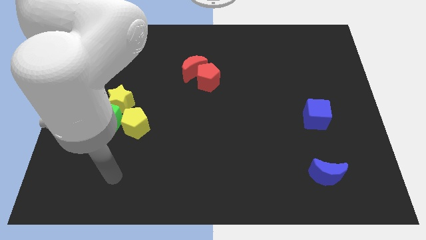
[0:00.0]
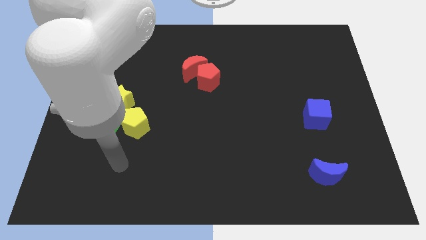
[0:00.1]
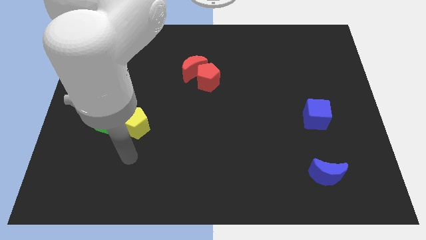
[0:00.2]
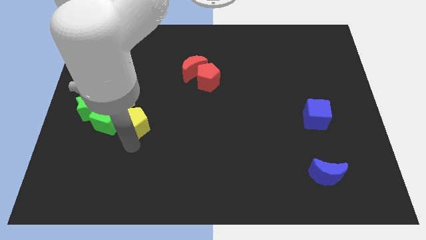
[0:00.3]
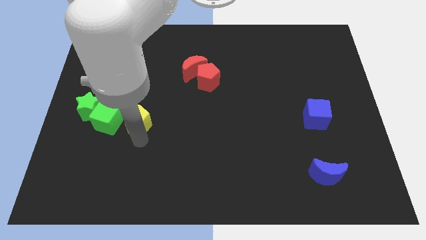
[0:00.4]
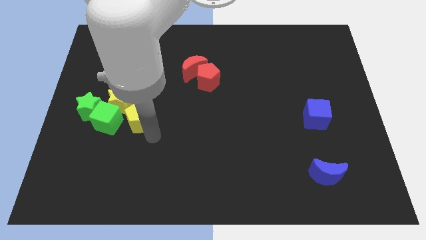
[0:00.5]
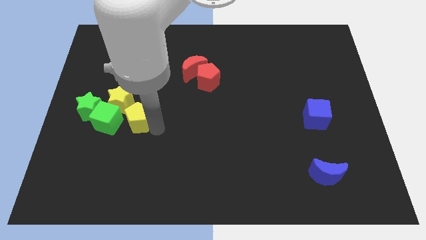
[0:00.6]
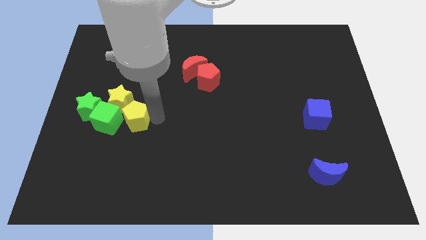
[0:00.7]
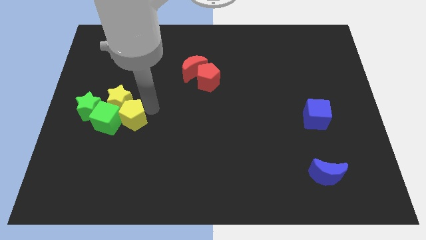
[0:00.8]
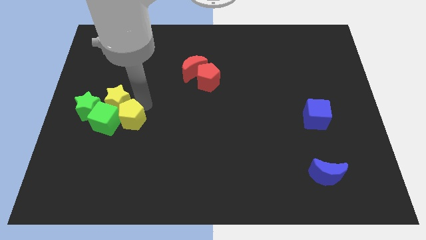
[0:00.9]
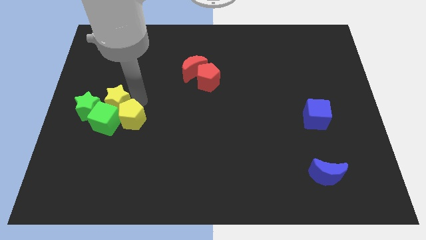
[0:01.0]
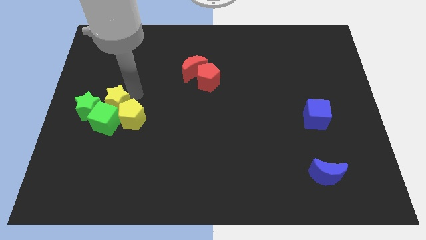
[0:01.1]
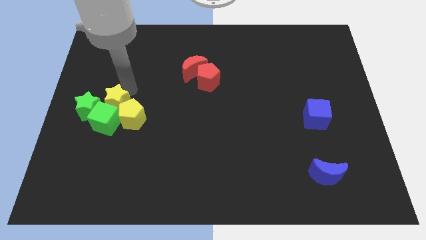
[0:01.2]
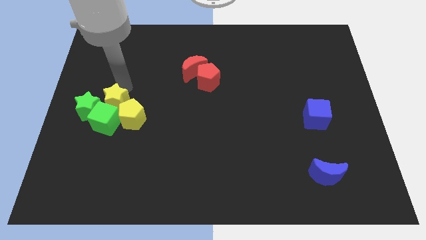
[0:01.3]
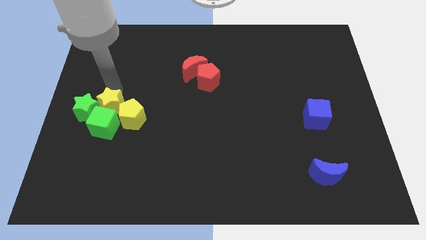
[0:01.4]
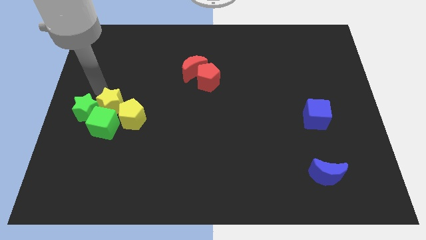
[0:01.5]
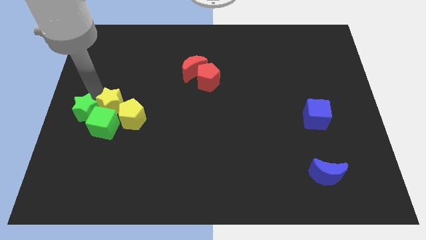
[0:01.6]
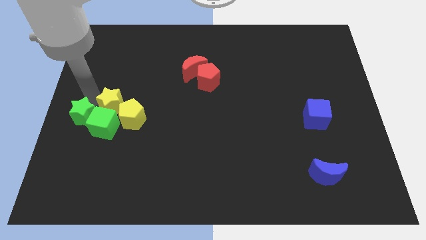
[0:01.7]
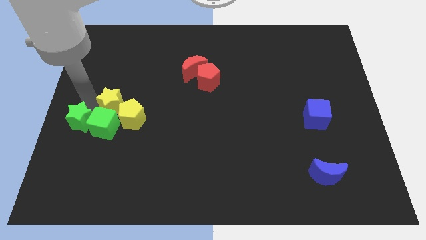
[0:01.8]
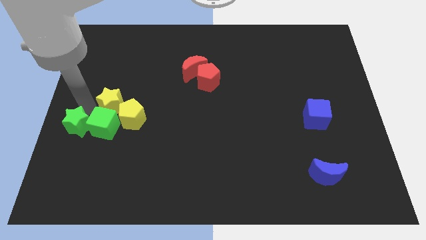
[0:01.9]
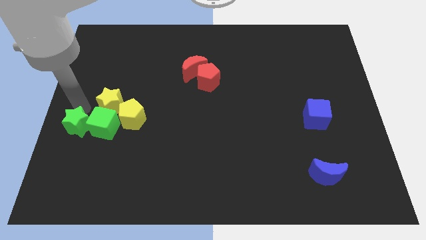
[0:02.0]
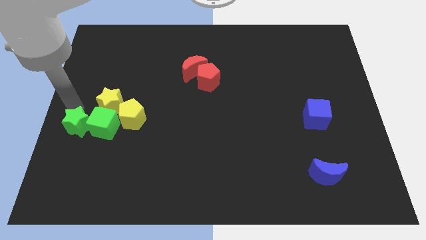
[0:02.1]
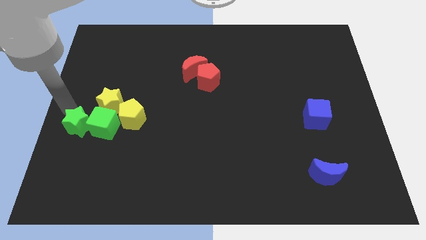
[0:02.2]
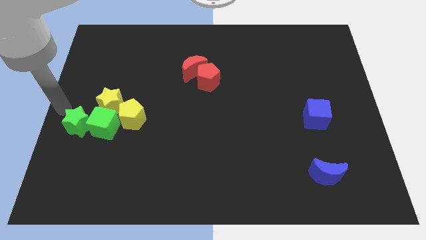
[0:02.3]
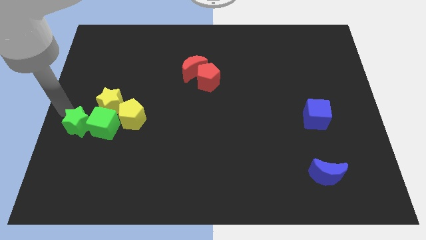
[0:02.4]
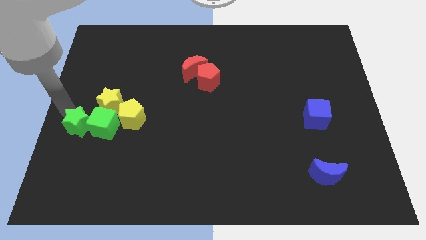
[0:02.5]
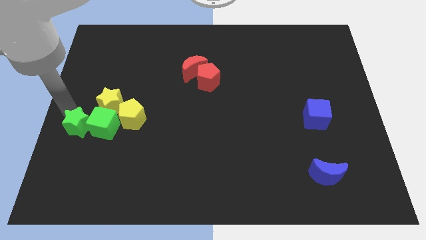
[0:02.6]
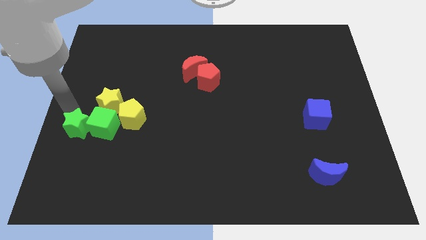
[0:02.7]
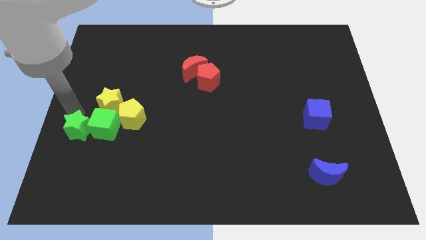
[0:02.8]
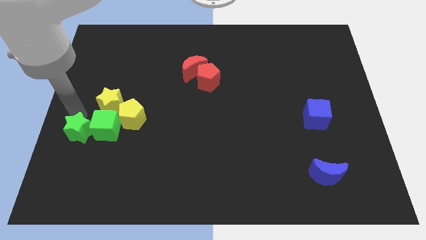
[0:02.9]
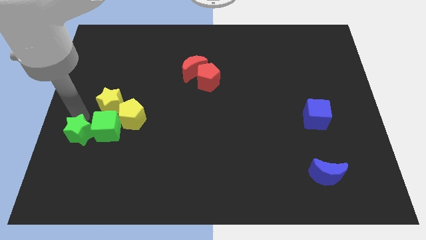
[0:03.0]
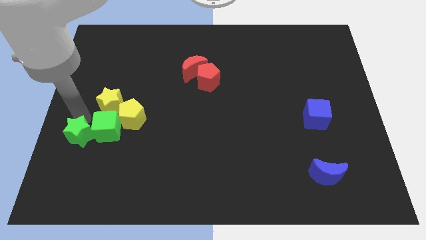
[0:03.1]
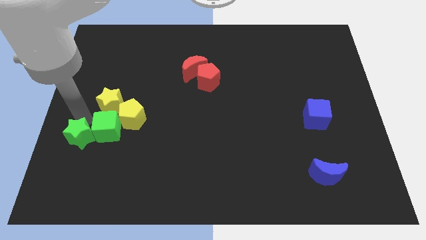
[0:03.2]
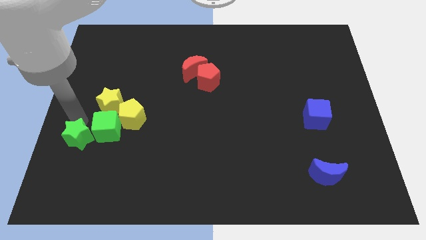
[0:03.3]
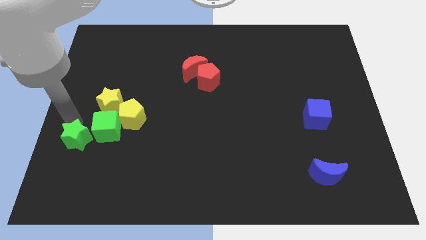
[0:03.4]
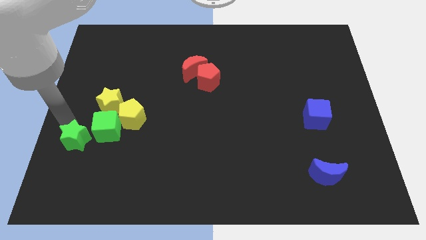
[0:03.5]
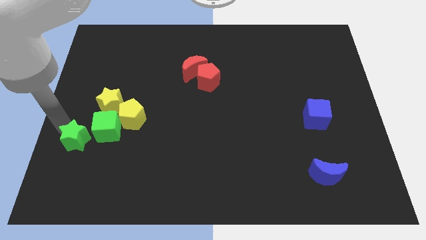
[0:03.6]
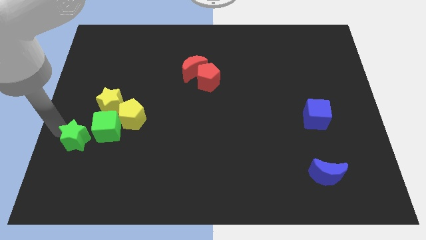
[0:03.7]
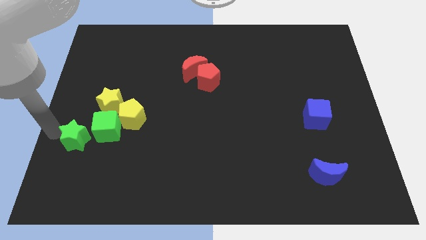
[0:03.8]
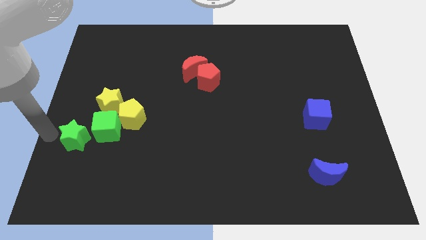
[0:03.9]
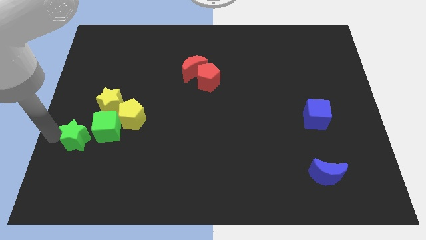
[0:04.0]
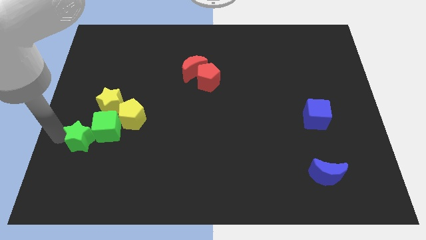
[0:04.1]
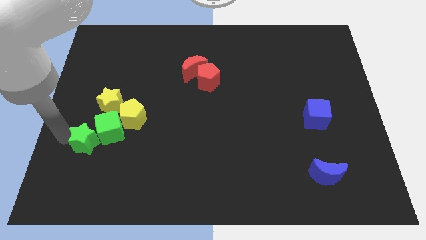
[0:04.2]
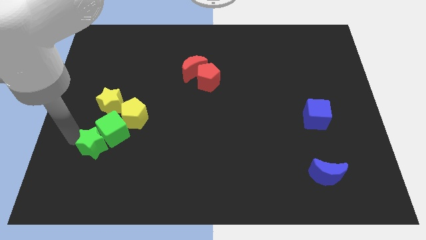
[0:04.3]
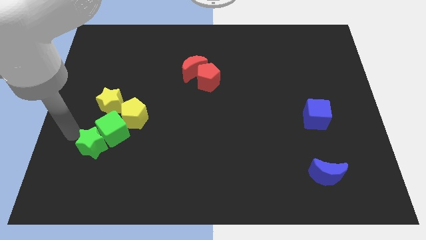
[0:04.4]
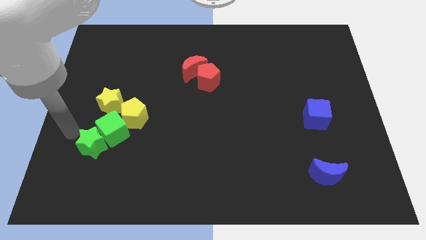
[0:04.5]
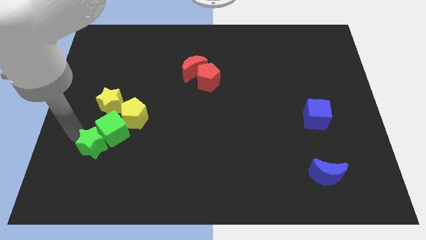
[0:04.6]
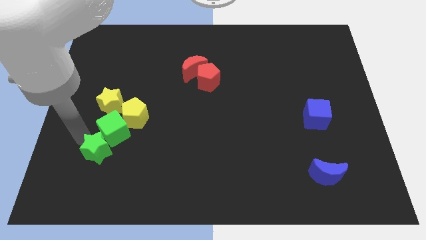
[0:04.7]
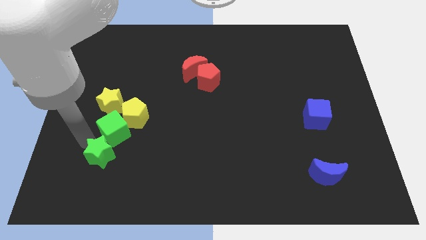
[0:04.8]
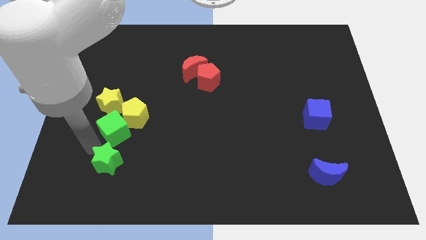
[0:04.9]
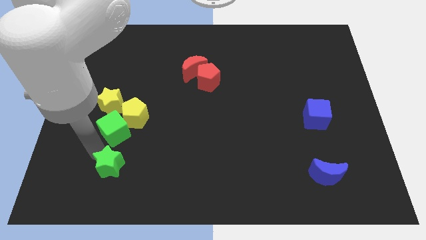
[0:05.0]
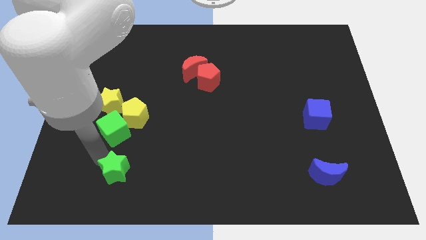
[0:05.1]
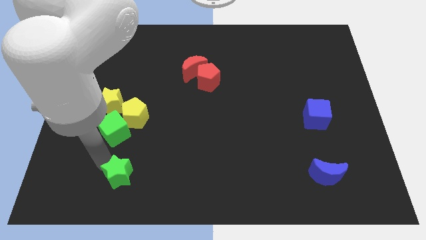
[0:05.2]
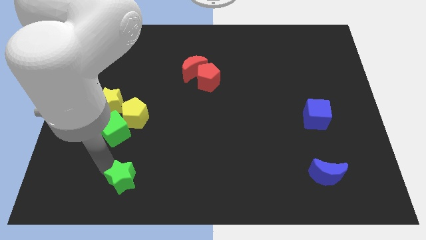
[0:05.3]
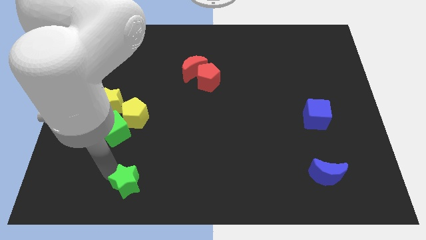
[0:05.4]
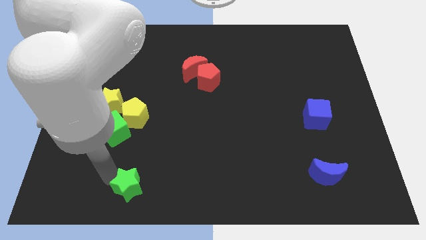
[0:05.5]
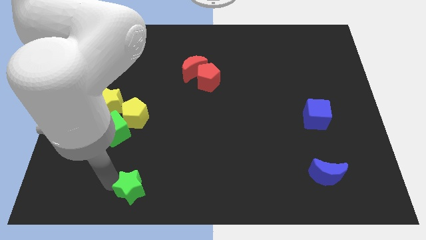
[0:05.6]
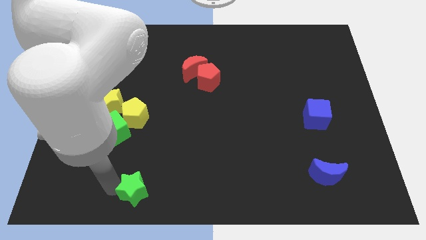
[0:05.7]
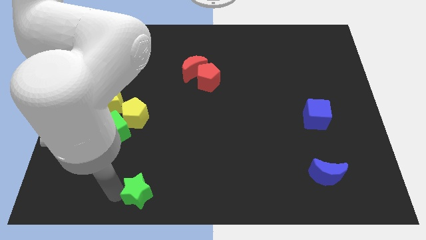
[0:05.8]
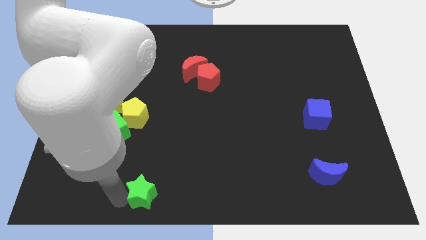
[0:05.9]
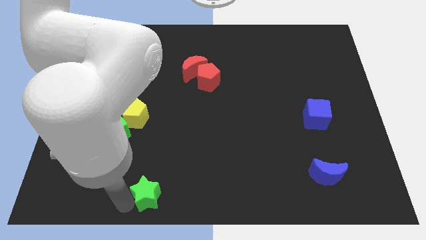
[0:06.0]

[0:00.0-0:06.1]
push the green star to the bottom side
